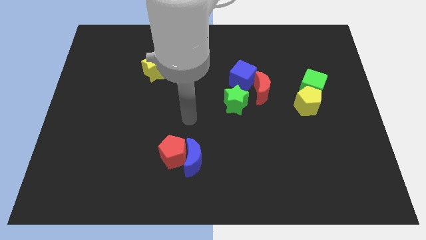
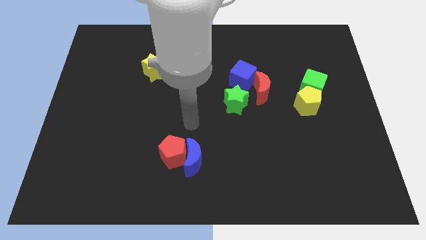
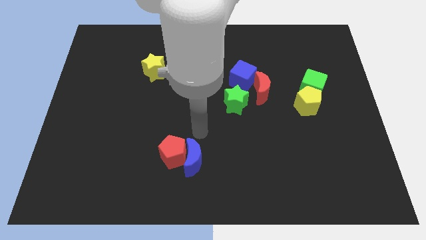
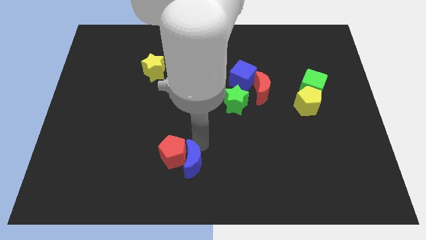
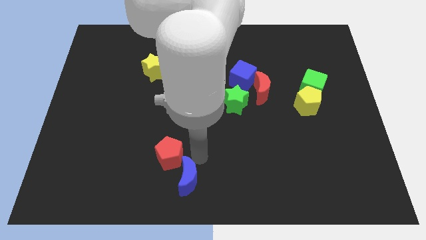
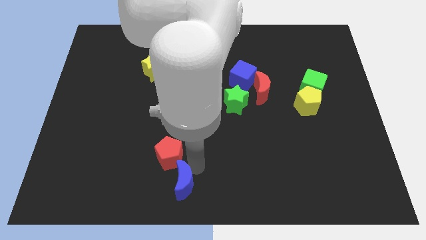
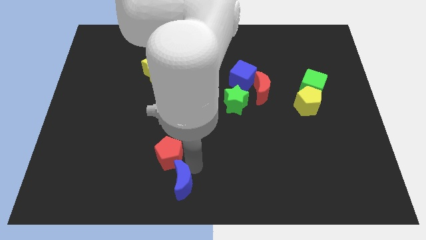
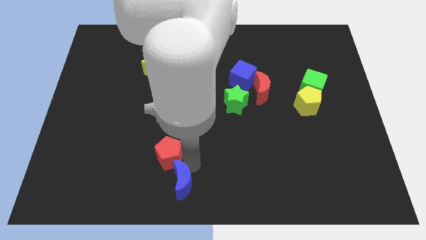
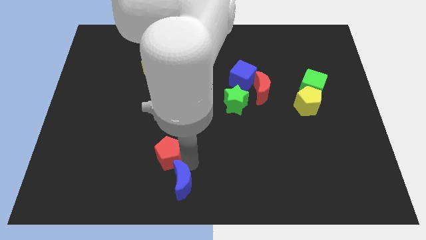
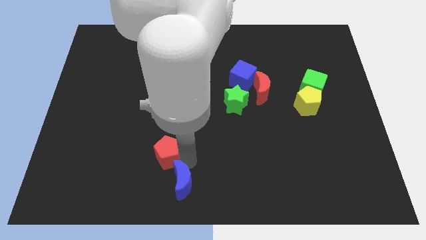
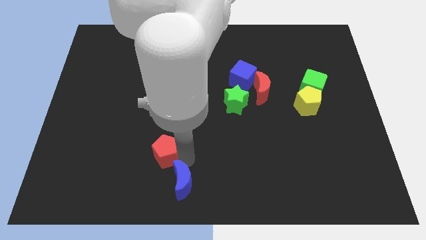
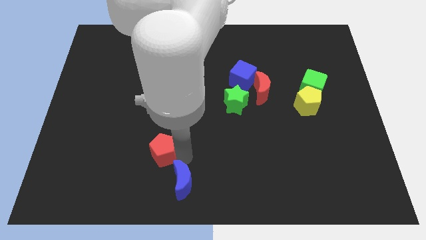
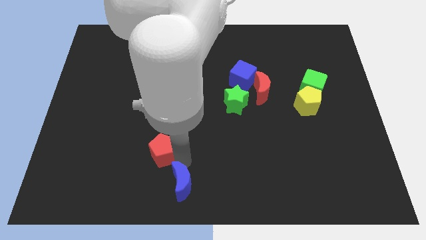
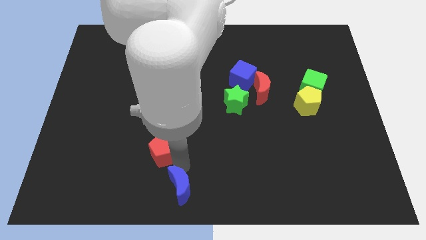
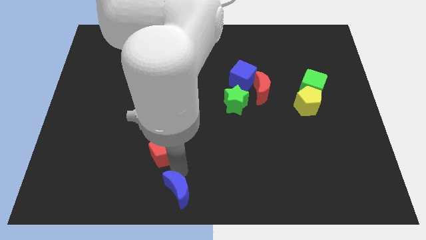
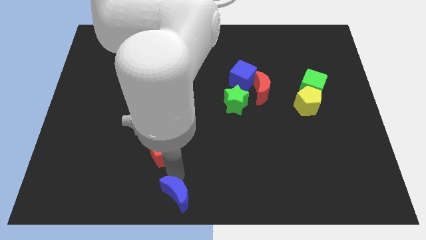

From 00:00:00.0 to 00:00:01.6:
move the red pentagon away from the blue moon

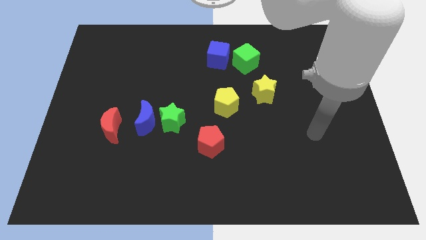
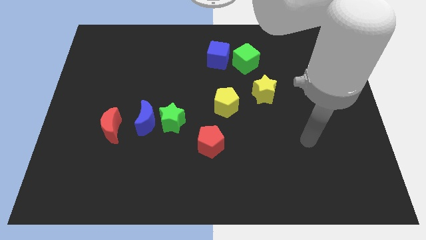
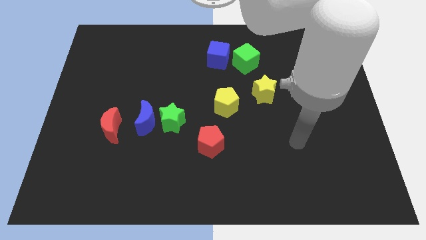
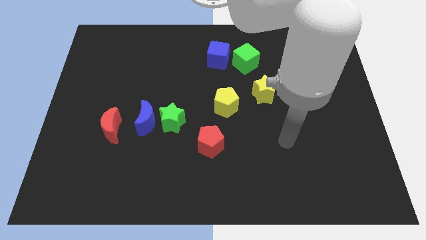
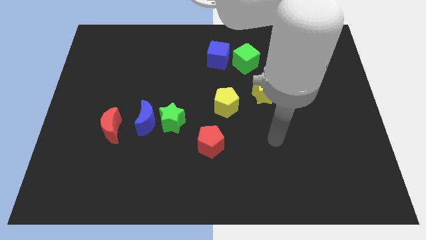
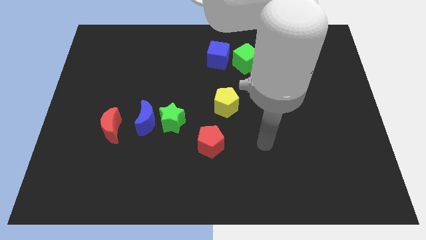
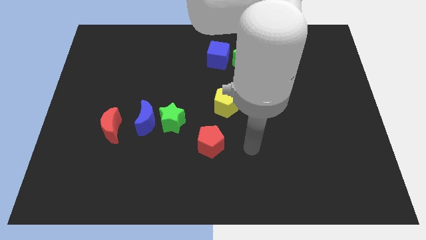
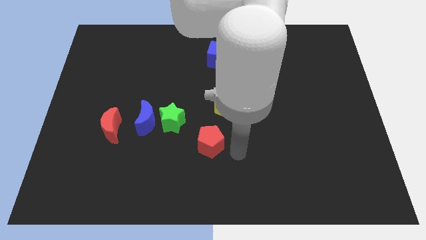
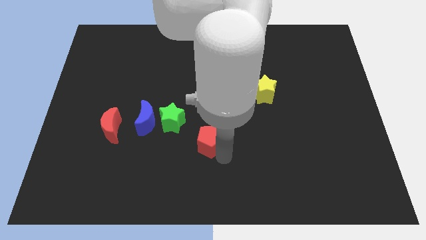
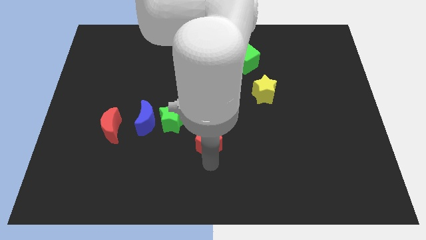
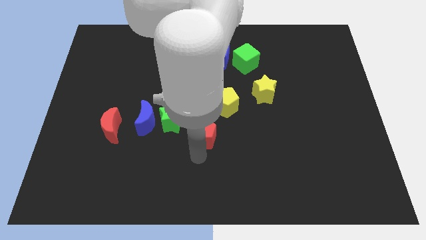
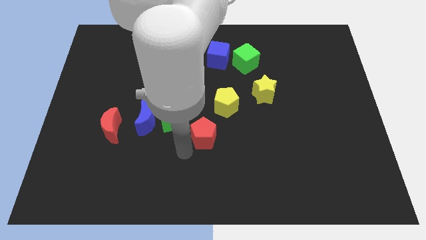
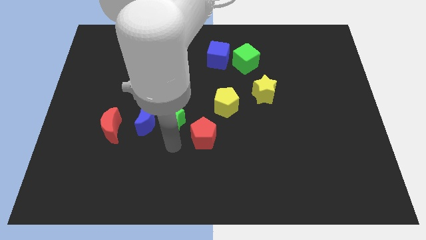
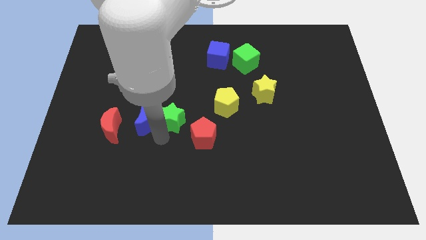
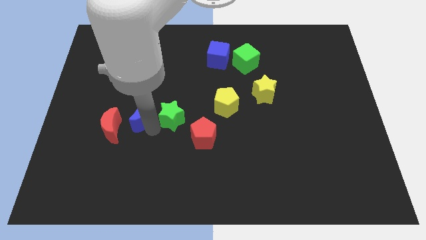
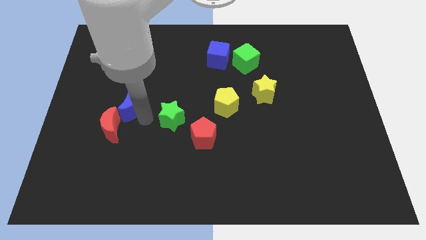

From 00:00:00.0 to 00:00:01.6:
move the green star away from the blue moon

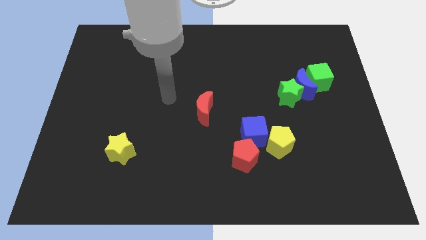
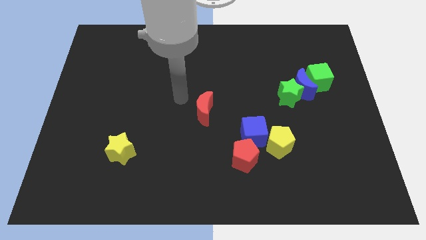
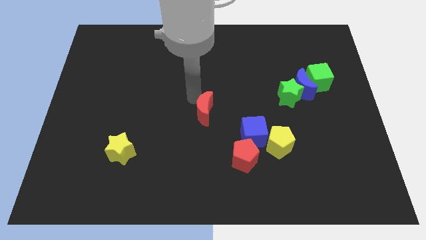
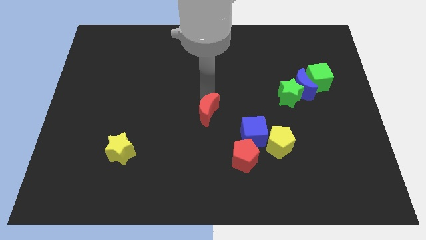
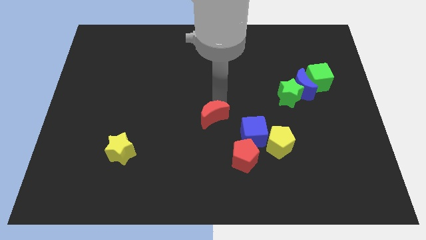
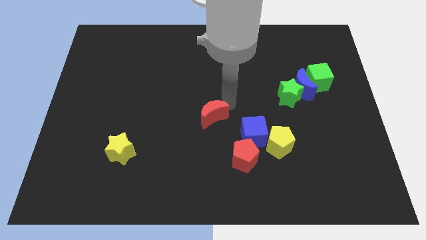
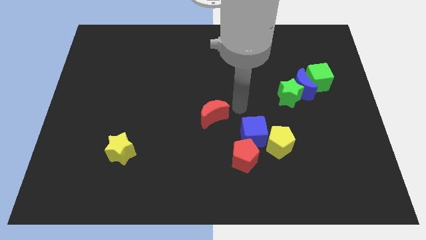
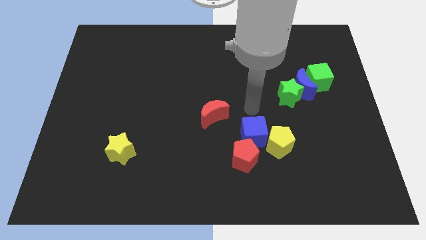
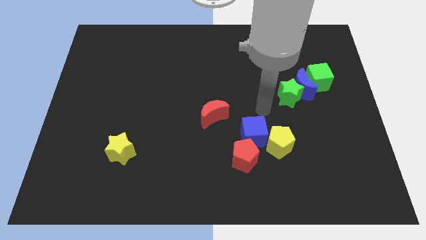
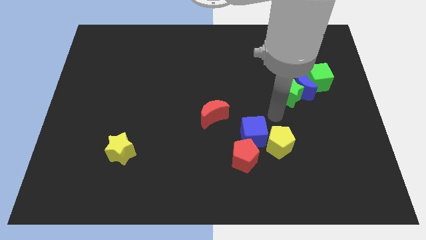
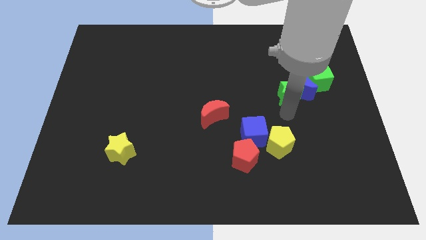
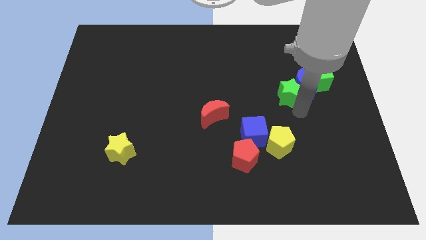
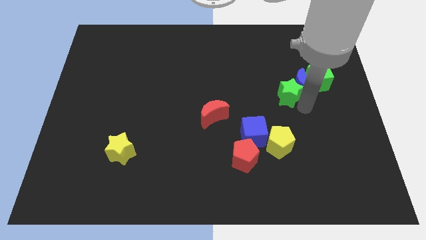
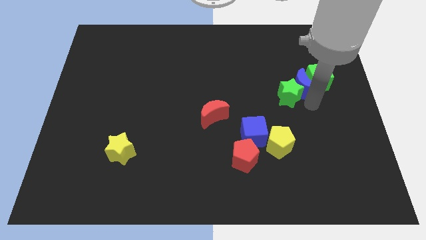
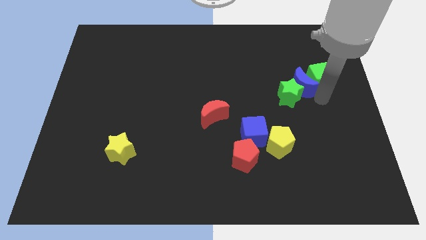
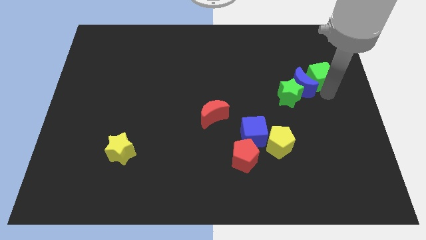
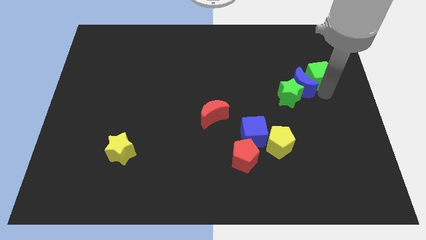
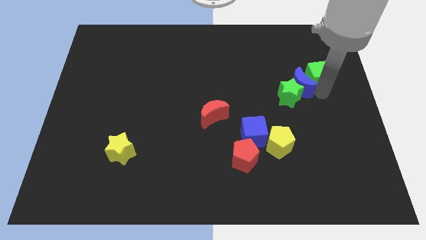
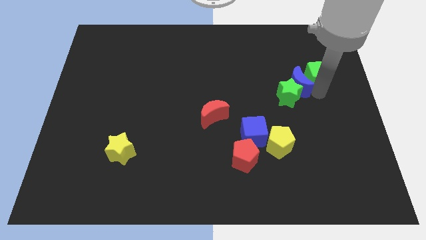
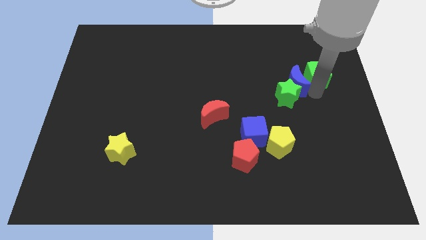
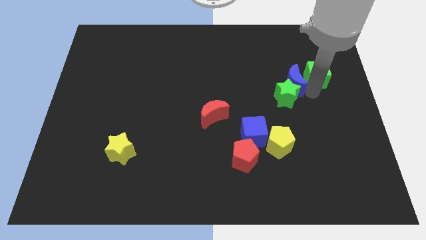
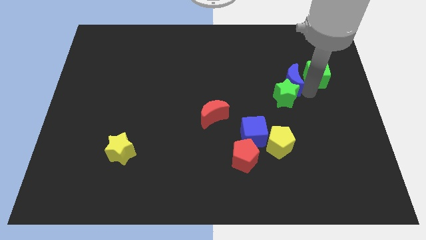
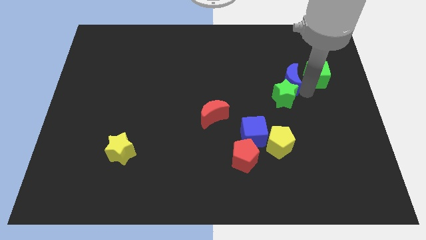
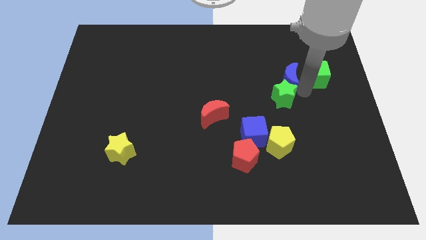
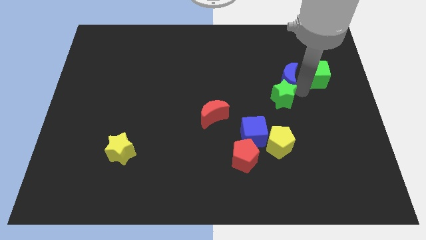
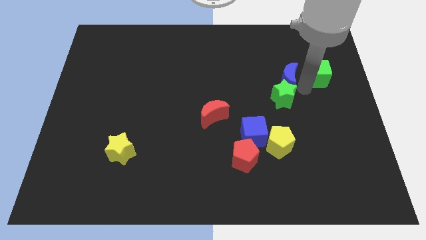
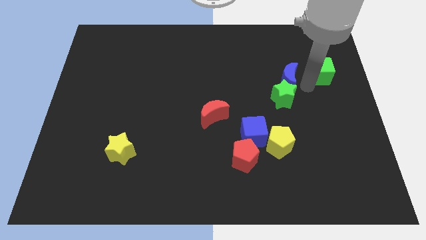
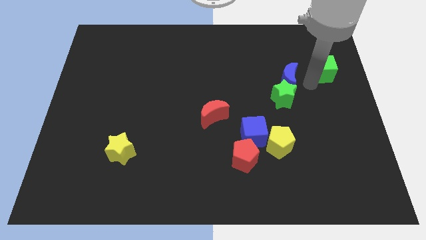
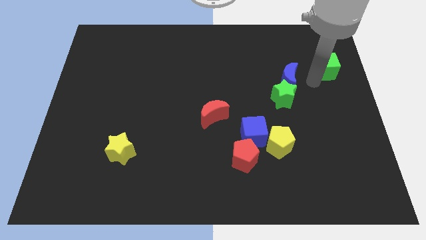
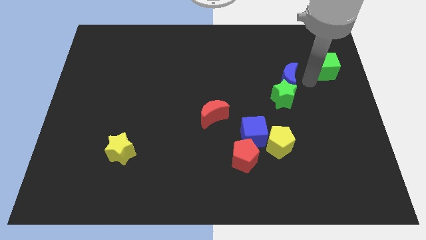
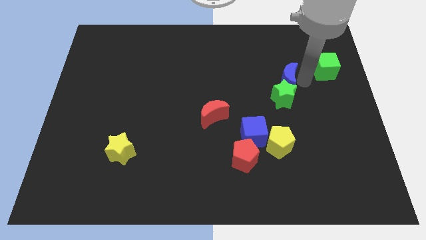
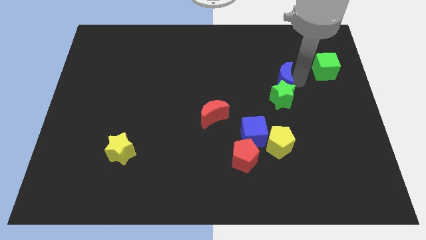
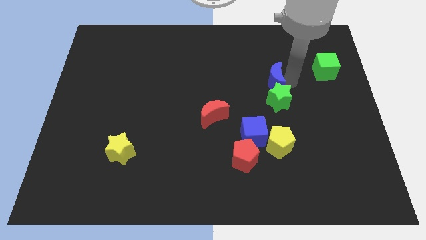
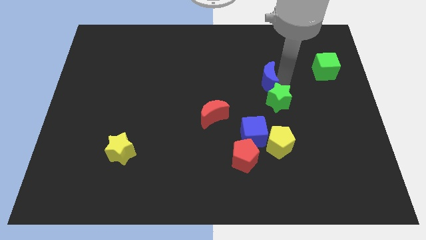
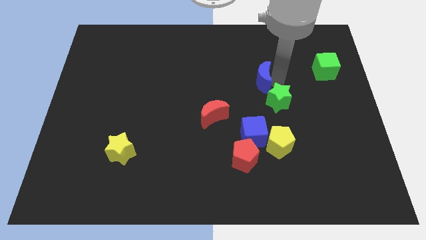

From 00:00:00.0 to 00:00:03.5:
separate the blue moon from the green star and green cube

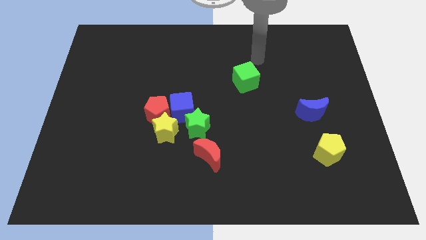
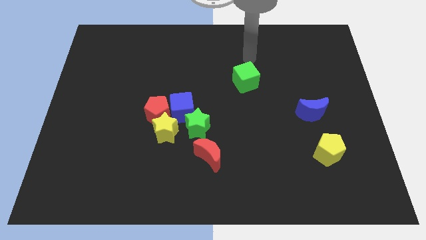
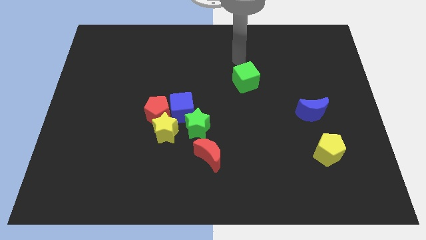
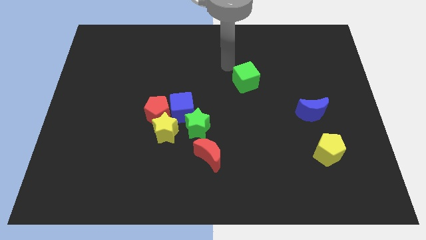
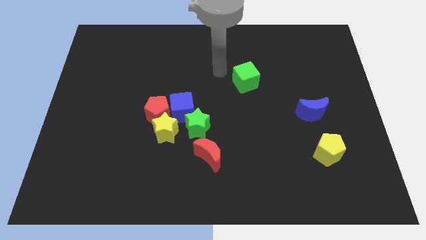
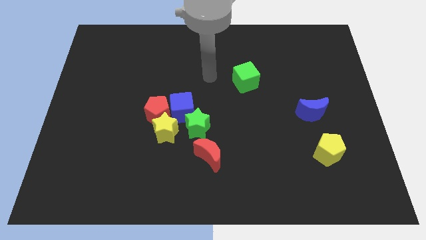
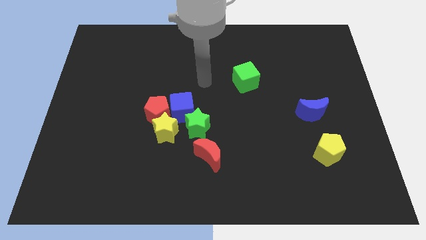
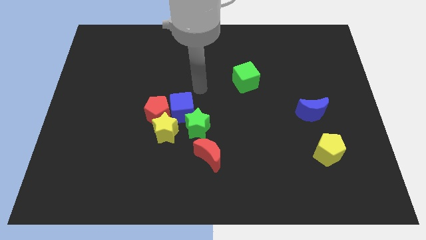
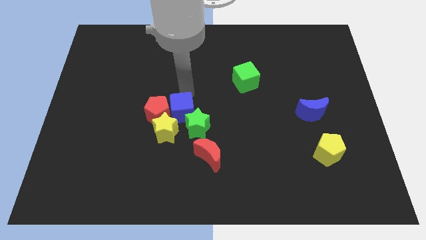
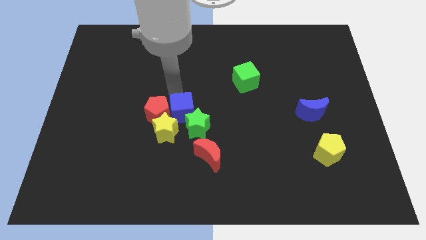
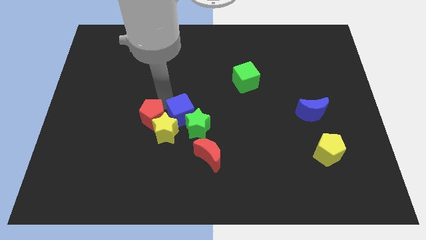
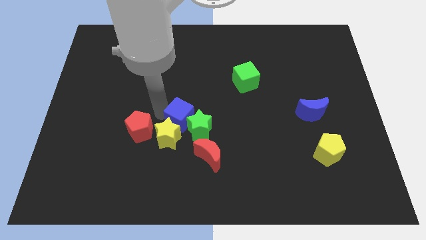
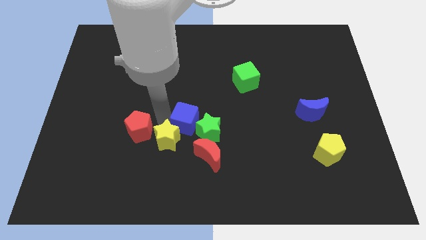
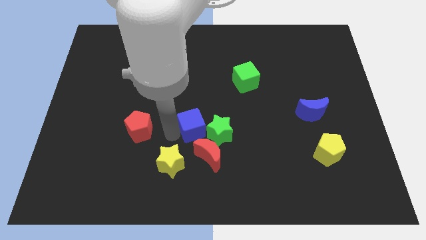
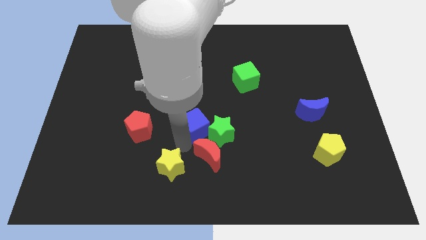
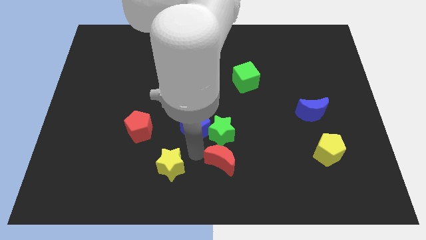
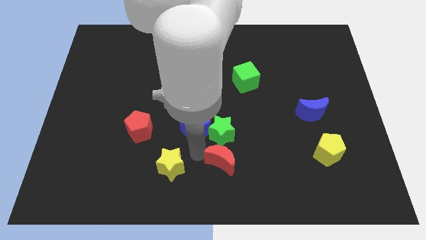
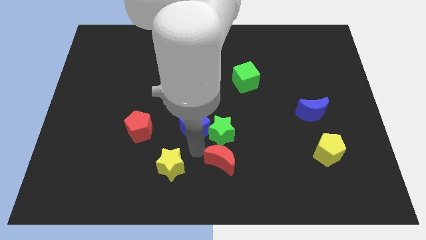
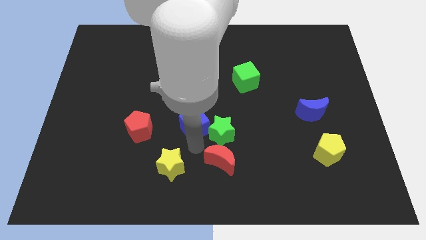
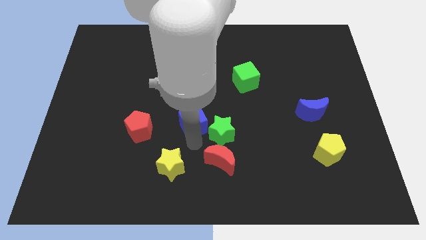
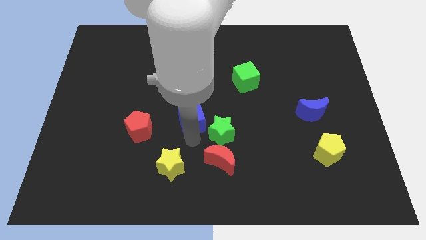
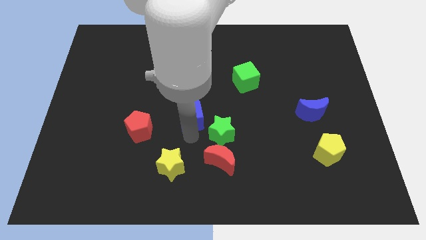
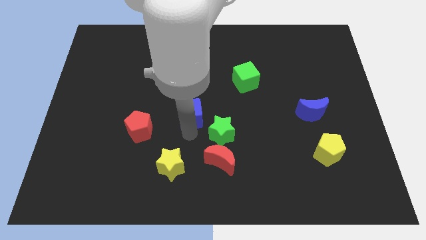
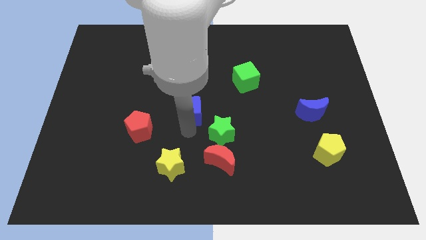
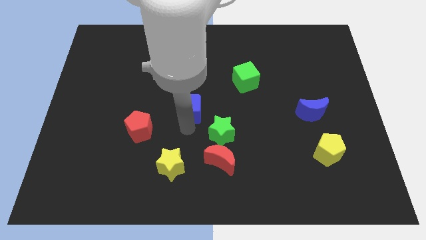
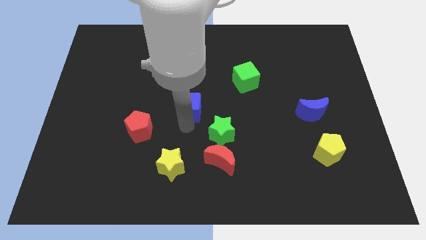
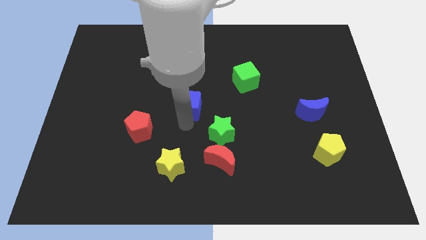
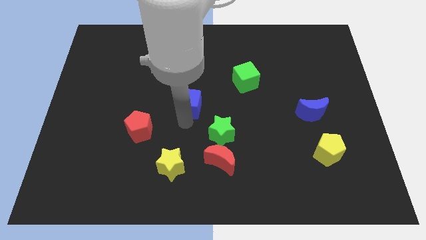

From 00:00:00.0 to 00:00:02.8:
pull the blue cube apart from the group
